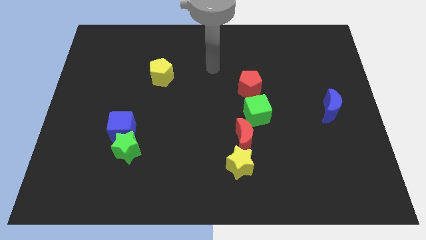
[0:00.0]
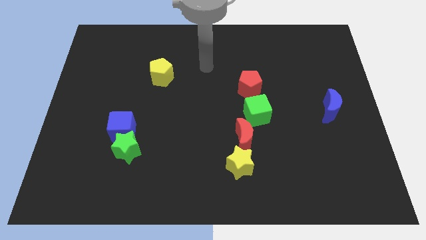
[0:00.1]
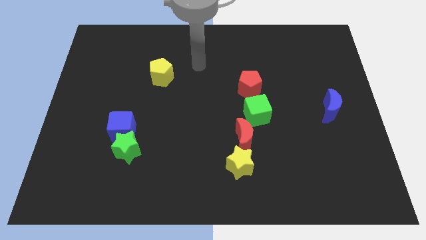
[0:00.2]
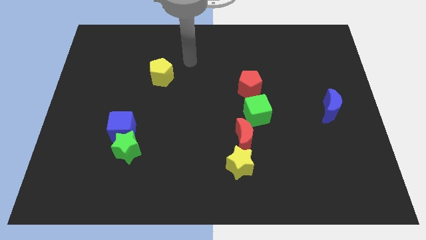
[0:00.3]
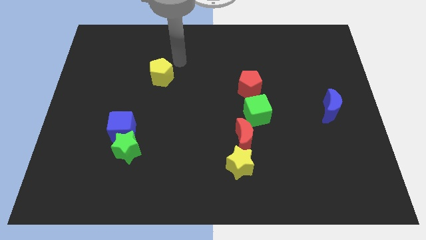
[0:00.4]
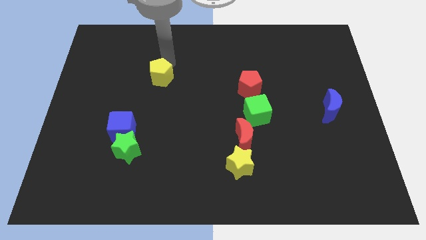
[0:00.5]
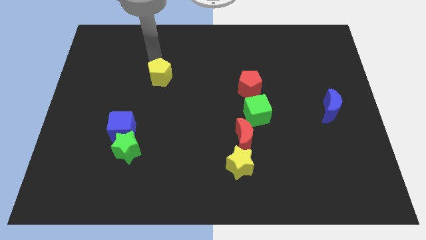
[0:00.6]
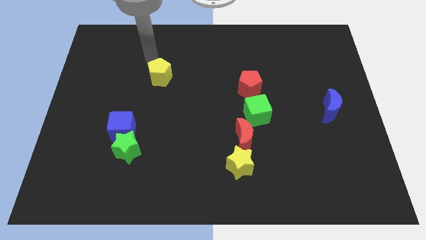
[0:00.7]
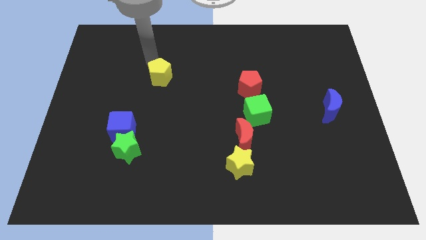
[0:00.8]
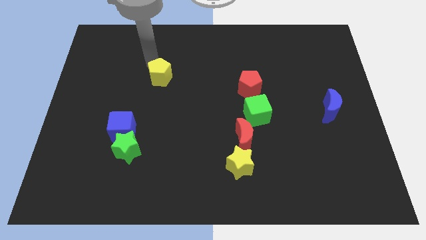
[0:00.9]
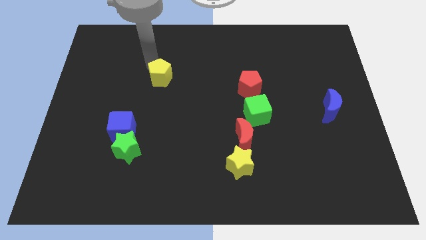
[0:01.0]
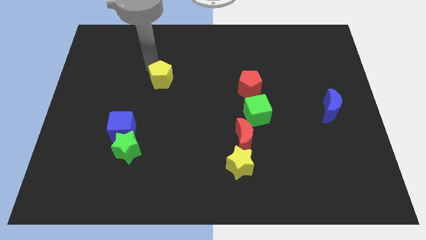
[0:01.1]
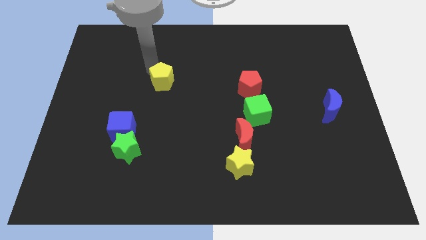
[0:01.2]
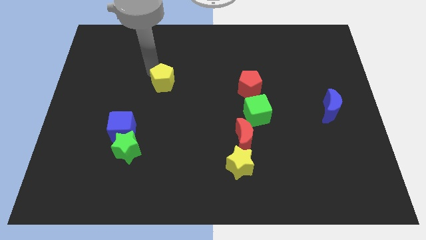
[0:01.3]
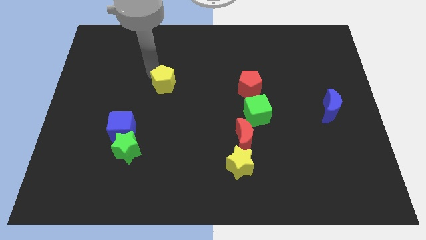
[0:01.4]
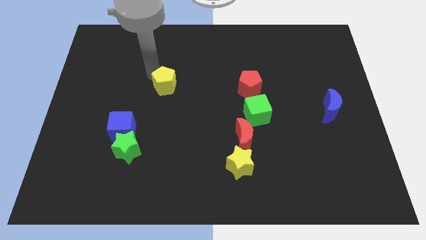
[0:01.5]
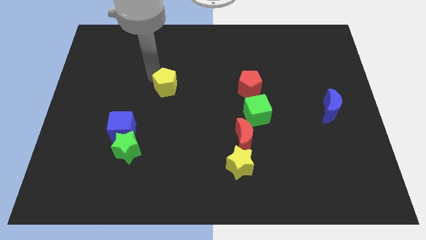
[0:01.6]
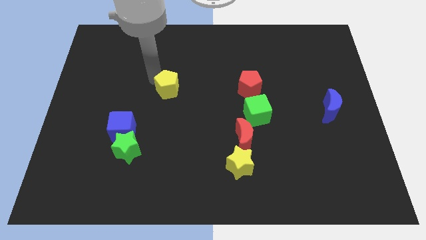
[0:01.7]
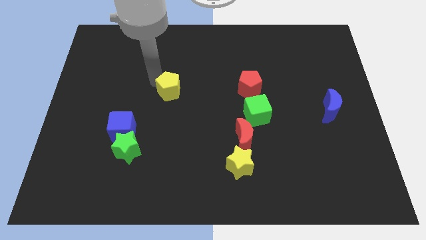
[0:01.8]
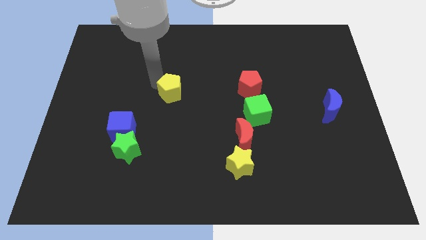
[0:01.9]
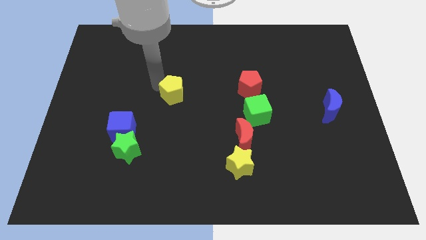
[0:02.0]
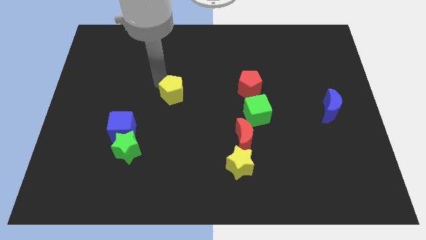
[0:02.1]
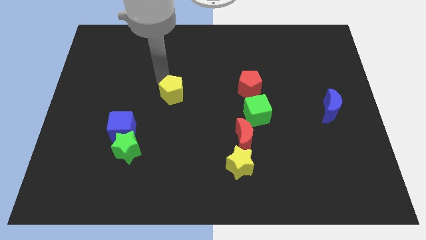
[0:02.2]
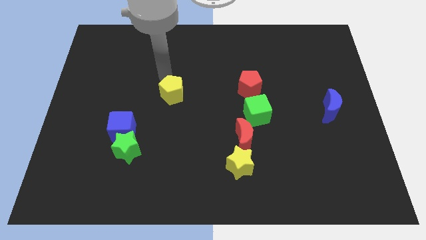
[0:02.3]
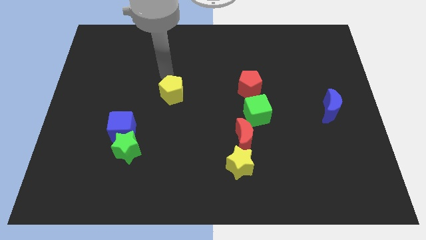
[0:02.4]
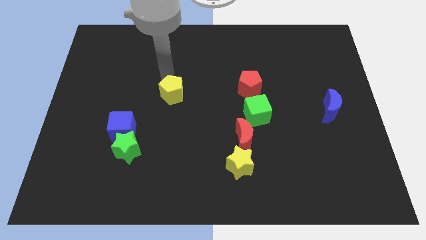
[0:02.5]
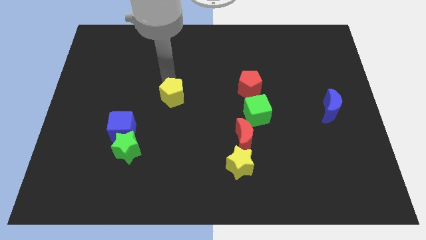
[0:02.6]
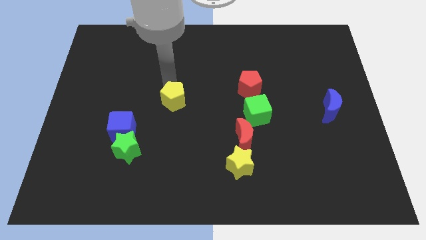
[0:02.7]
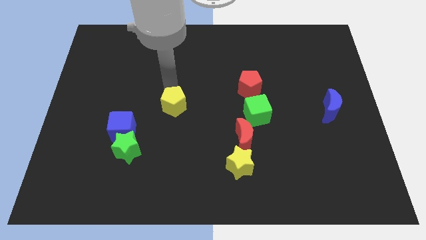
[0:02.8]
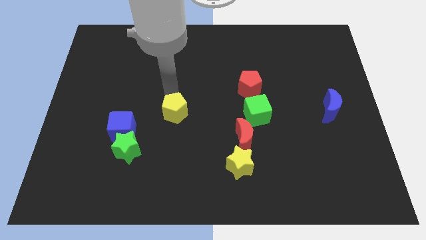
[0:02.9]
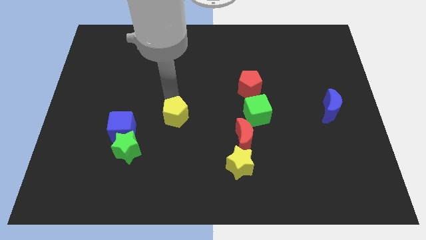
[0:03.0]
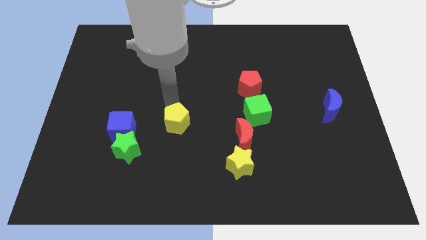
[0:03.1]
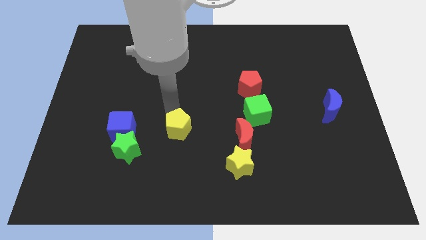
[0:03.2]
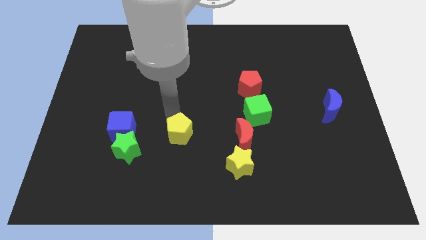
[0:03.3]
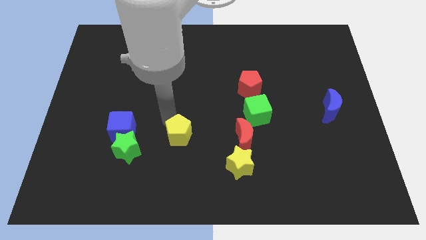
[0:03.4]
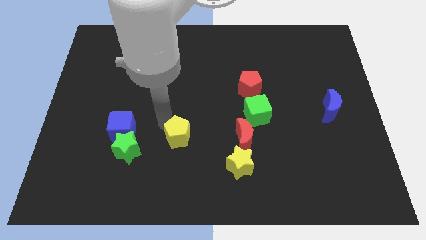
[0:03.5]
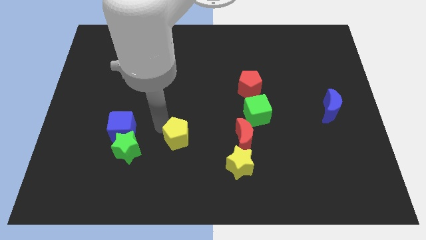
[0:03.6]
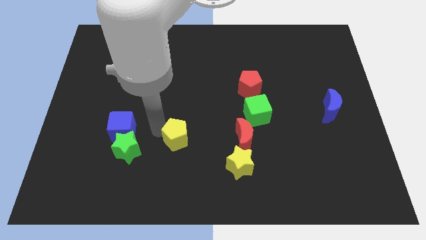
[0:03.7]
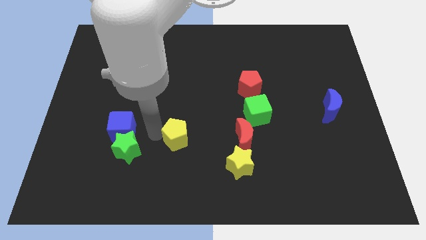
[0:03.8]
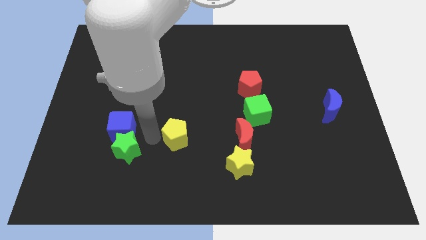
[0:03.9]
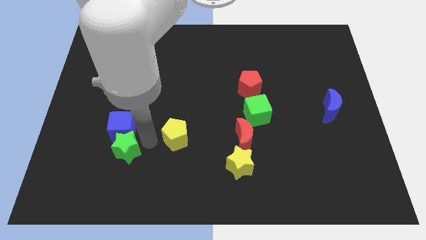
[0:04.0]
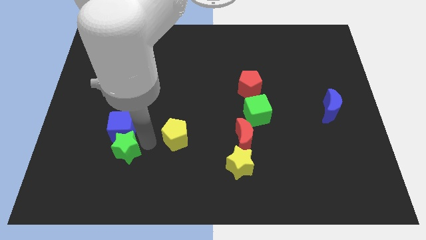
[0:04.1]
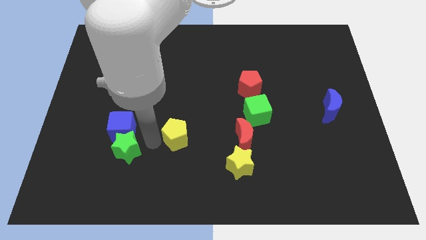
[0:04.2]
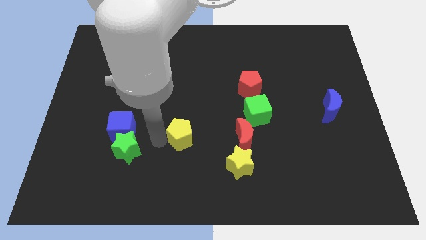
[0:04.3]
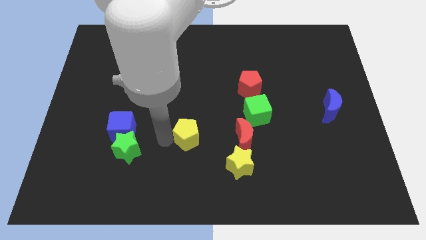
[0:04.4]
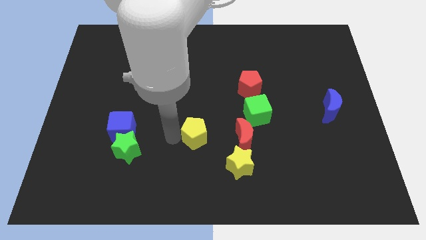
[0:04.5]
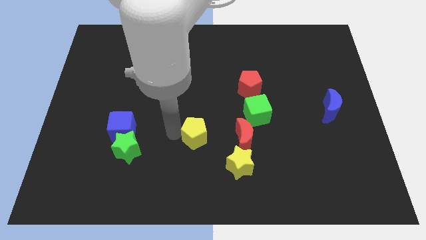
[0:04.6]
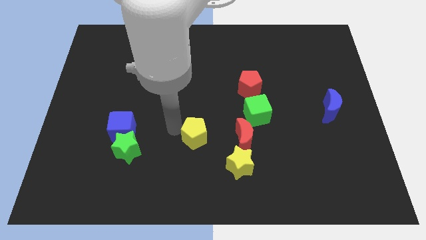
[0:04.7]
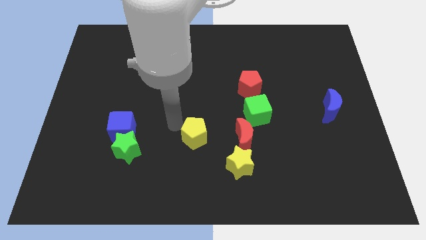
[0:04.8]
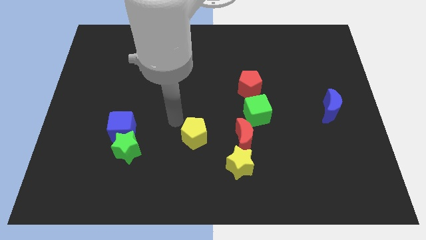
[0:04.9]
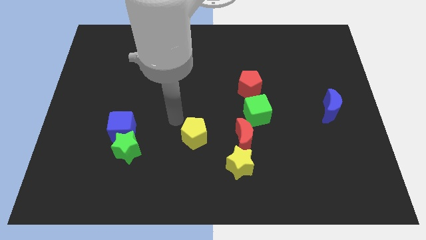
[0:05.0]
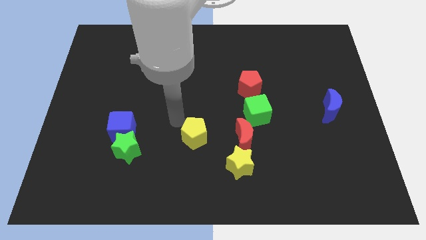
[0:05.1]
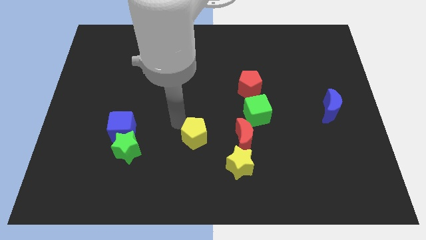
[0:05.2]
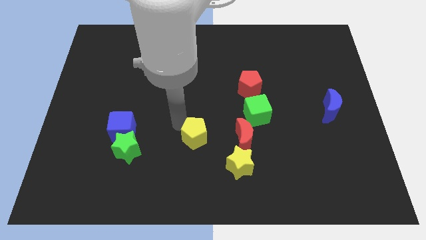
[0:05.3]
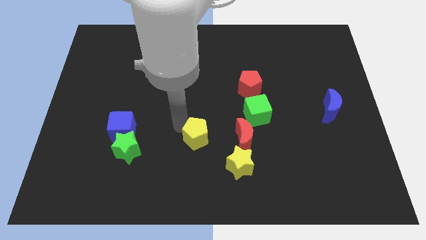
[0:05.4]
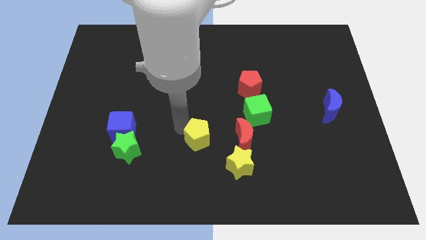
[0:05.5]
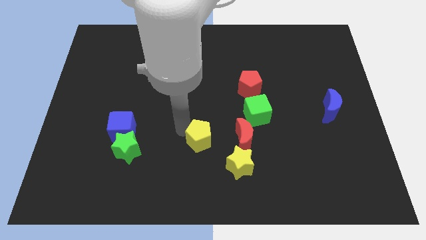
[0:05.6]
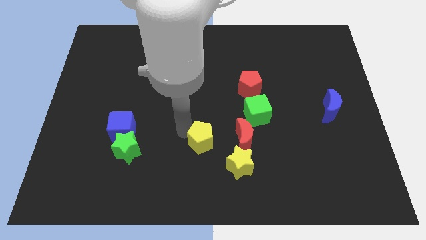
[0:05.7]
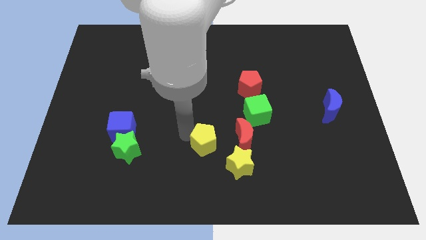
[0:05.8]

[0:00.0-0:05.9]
slide the yellow pentagon downwards and then right

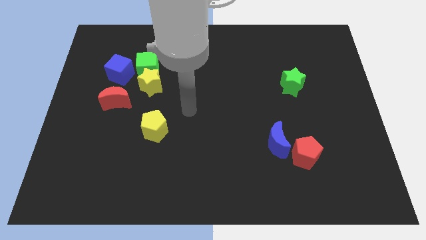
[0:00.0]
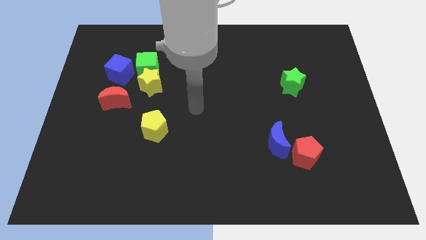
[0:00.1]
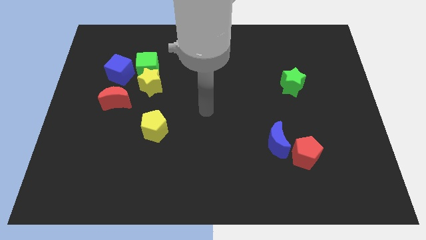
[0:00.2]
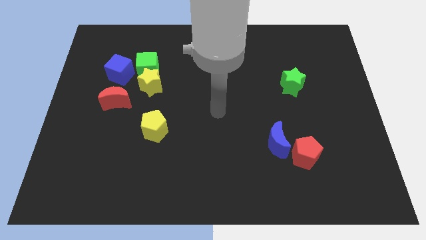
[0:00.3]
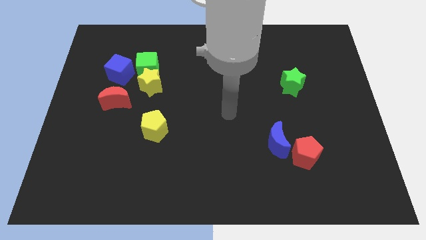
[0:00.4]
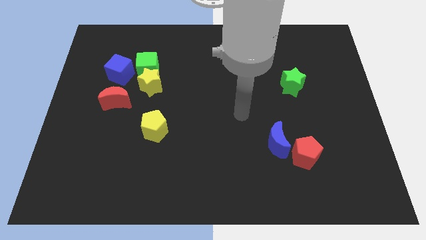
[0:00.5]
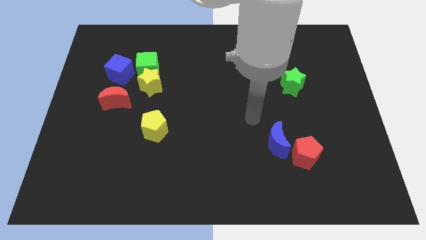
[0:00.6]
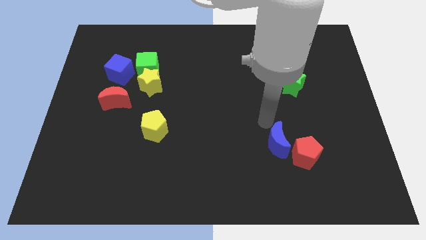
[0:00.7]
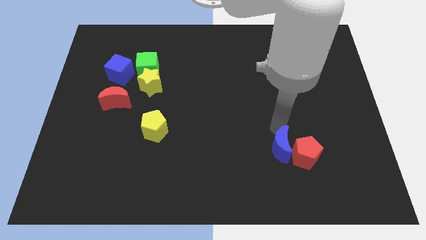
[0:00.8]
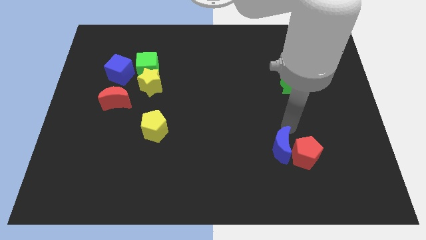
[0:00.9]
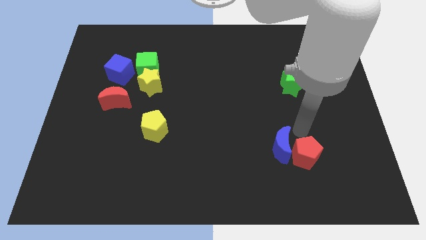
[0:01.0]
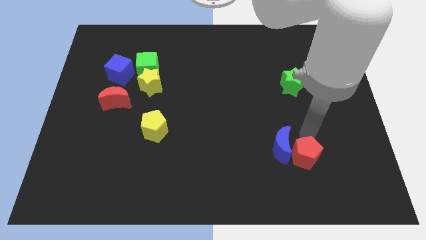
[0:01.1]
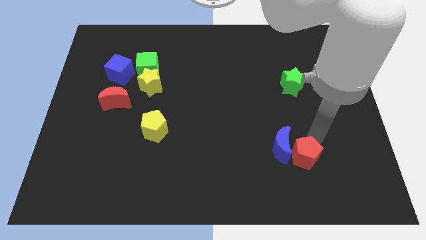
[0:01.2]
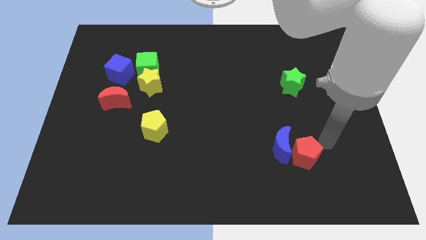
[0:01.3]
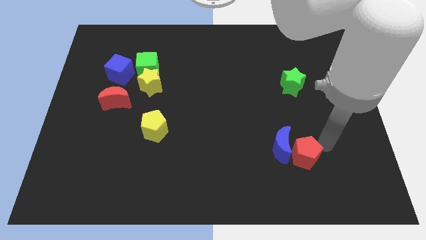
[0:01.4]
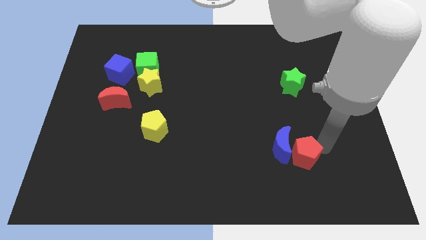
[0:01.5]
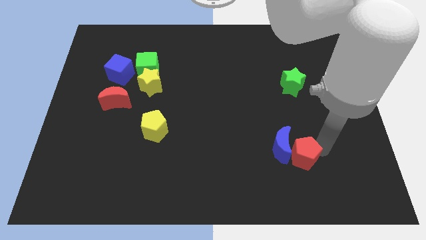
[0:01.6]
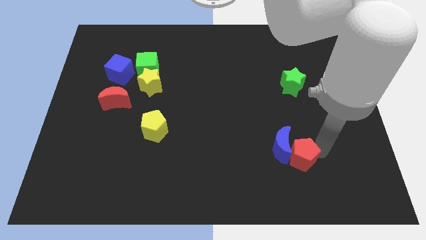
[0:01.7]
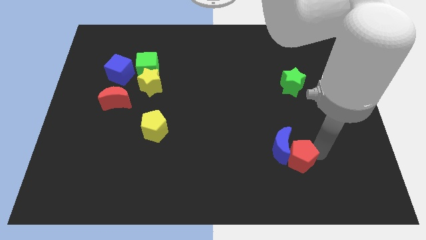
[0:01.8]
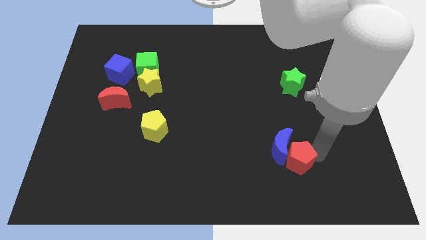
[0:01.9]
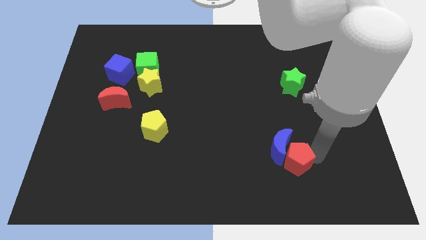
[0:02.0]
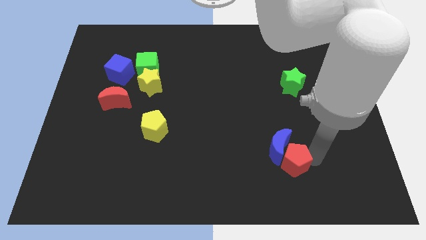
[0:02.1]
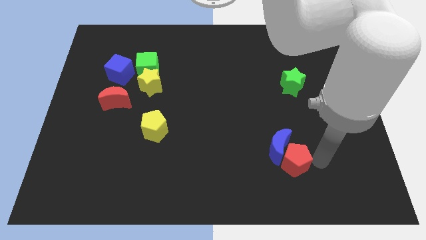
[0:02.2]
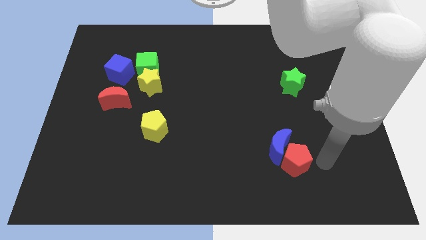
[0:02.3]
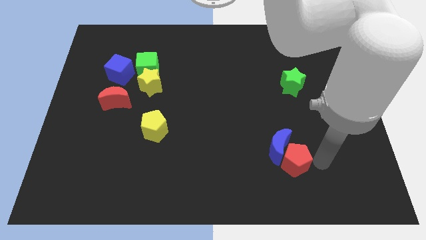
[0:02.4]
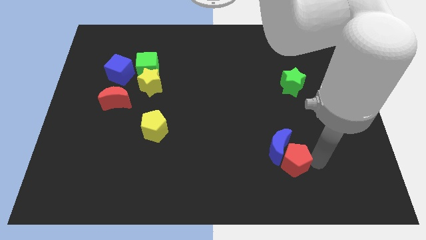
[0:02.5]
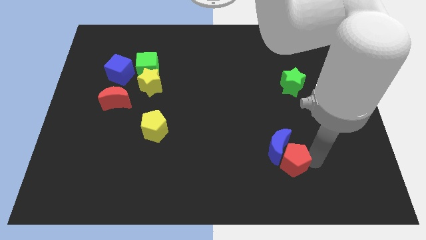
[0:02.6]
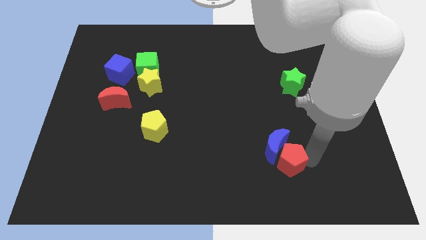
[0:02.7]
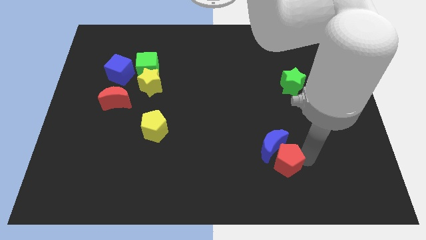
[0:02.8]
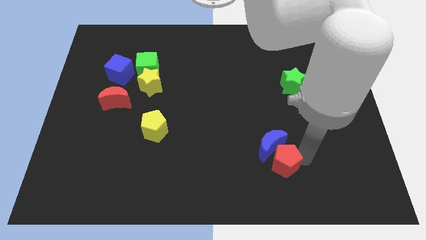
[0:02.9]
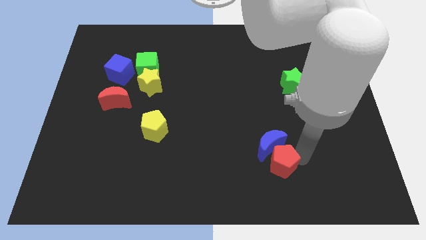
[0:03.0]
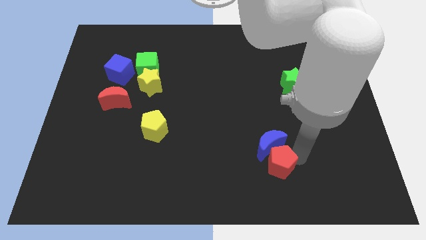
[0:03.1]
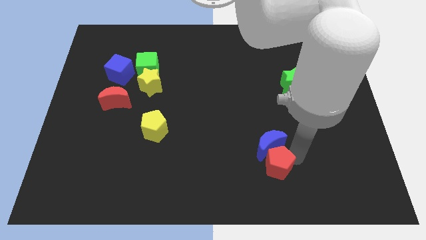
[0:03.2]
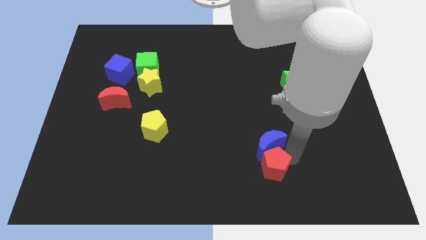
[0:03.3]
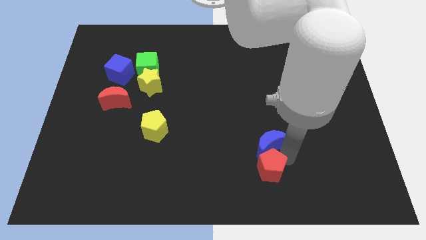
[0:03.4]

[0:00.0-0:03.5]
move the red pentagon left a little
